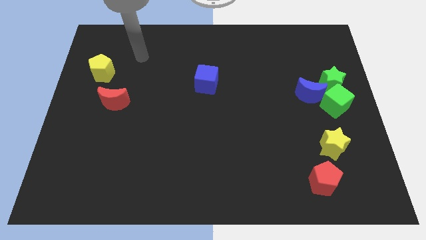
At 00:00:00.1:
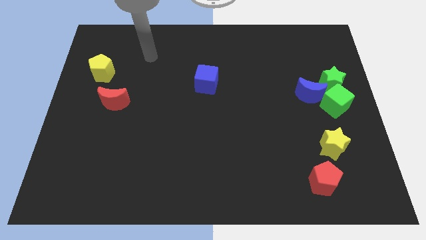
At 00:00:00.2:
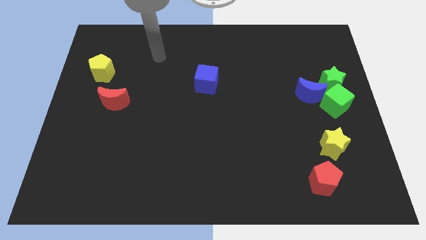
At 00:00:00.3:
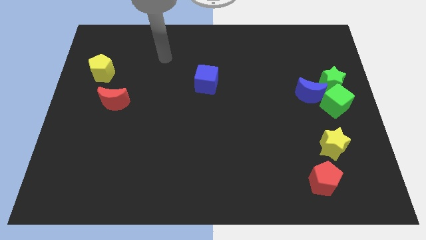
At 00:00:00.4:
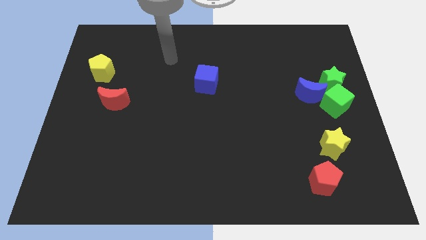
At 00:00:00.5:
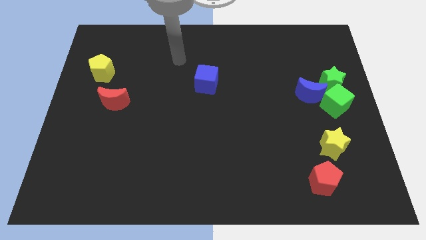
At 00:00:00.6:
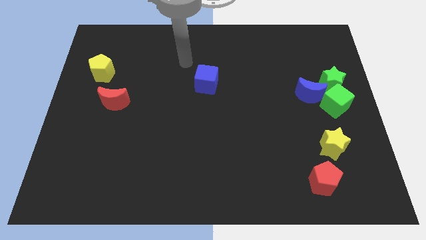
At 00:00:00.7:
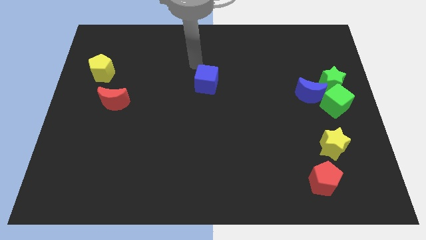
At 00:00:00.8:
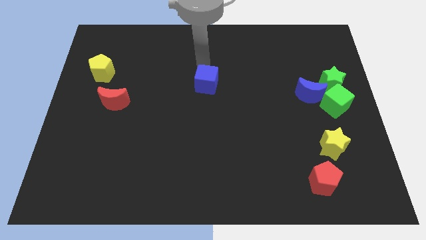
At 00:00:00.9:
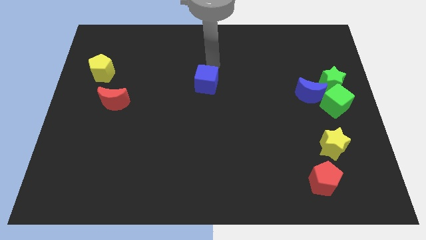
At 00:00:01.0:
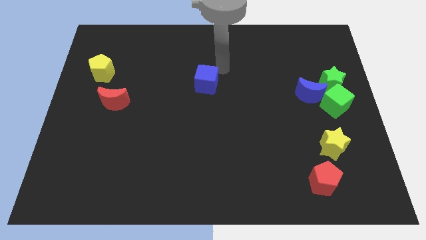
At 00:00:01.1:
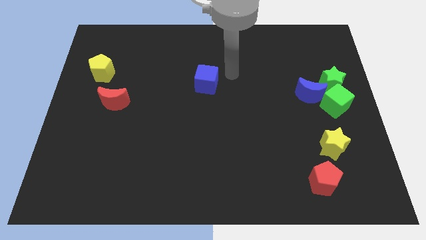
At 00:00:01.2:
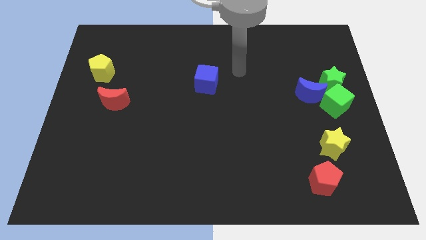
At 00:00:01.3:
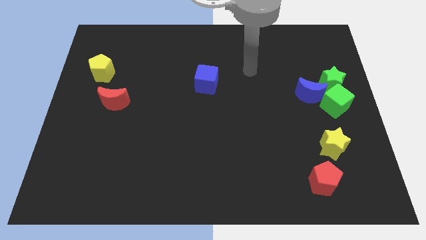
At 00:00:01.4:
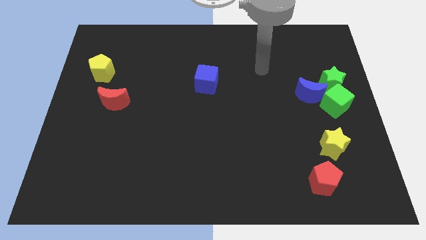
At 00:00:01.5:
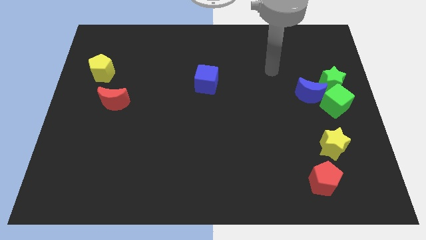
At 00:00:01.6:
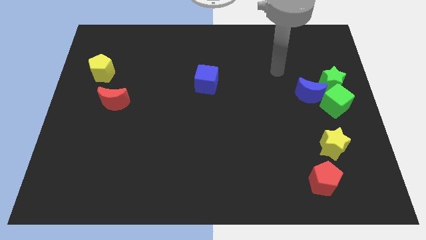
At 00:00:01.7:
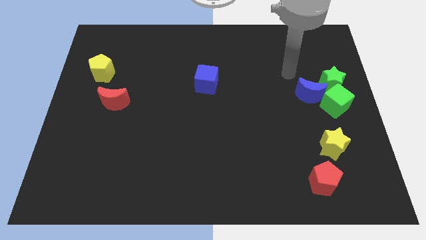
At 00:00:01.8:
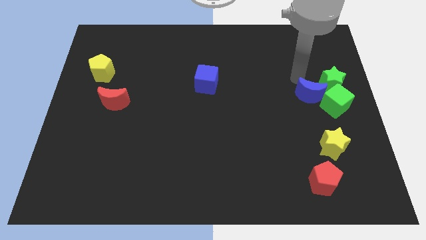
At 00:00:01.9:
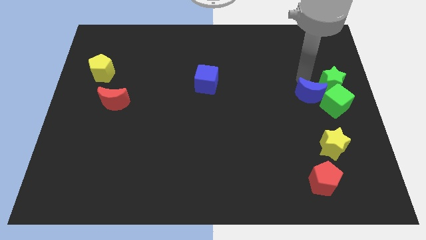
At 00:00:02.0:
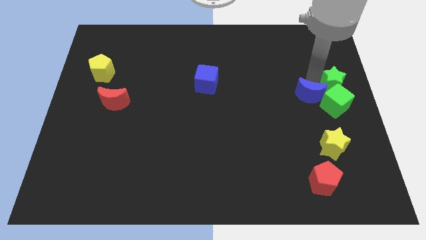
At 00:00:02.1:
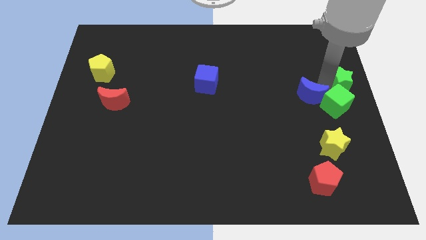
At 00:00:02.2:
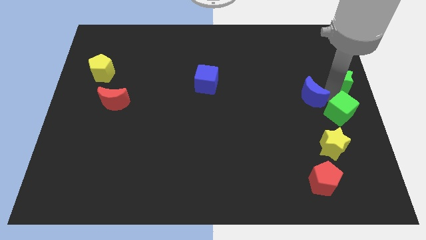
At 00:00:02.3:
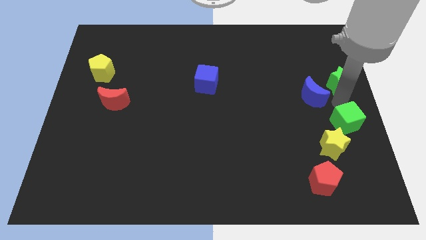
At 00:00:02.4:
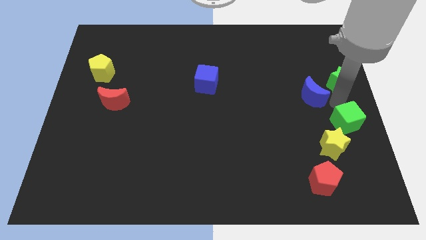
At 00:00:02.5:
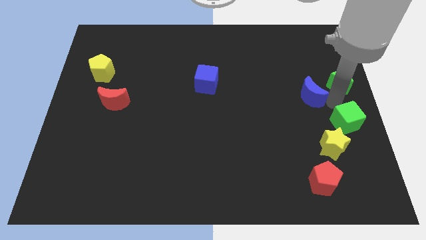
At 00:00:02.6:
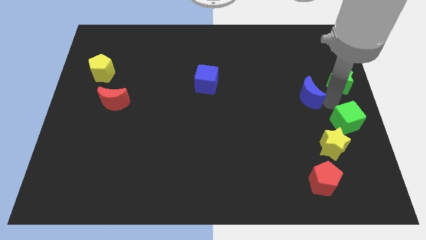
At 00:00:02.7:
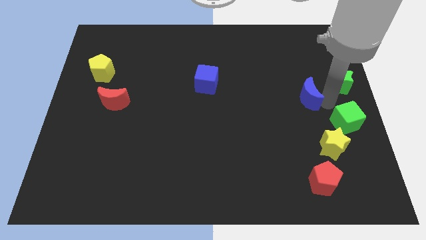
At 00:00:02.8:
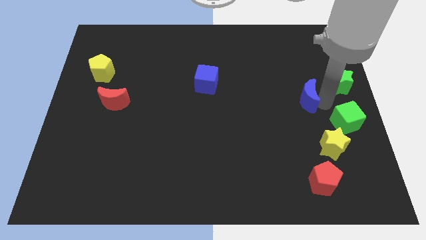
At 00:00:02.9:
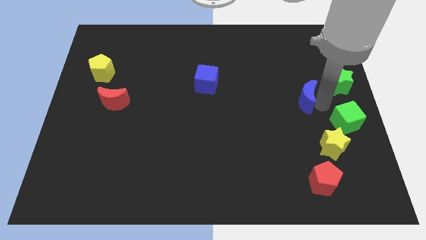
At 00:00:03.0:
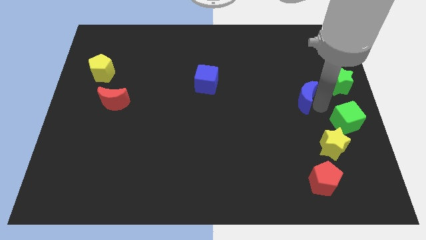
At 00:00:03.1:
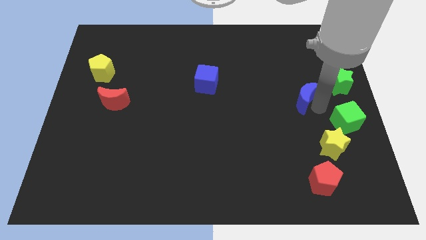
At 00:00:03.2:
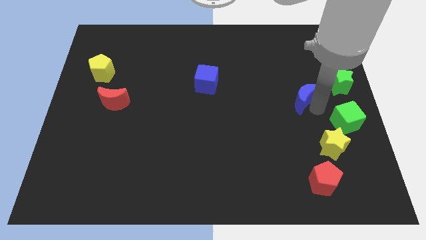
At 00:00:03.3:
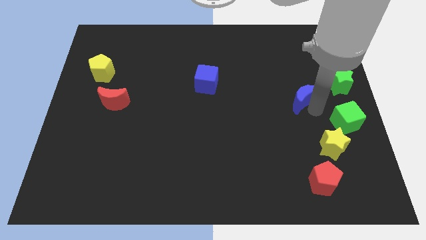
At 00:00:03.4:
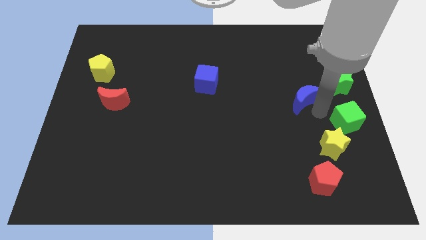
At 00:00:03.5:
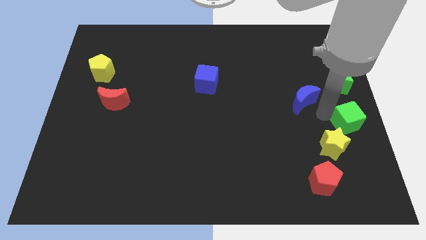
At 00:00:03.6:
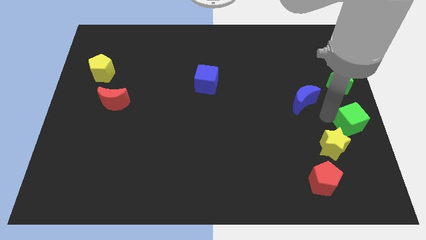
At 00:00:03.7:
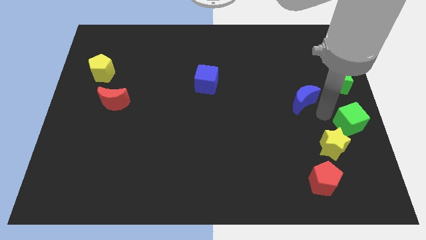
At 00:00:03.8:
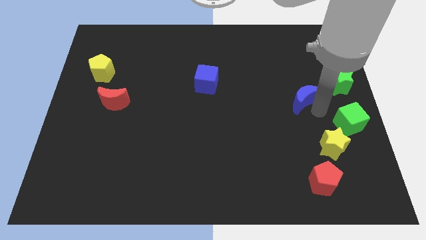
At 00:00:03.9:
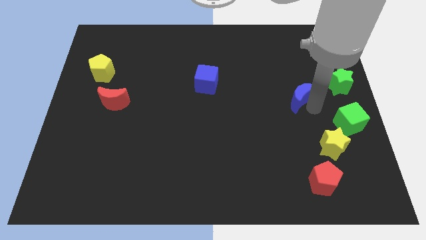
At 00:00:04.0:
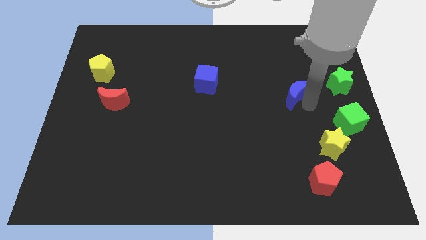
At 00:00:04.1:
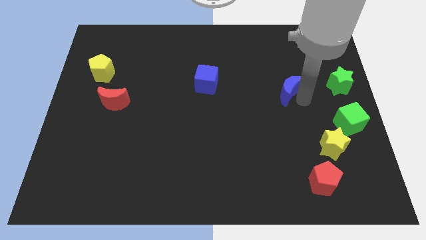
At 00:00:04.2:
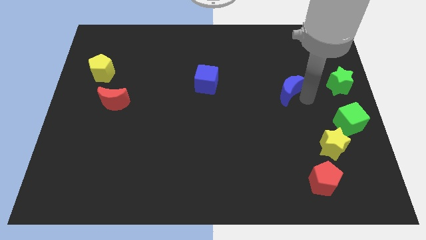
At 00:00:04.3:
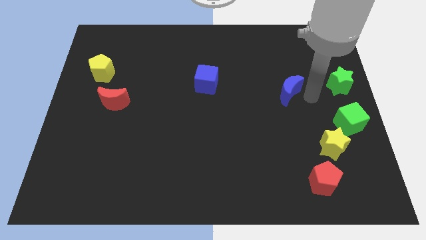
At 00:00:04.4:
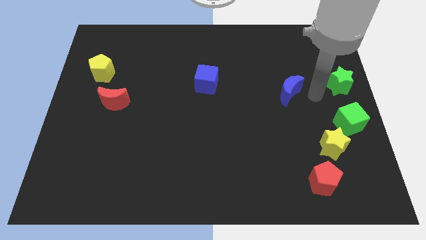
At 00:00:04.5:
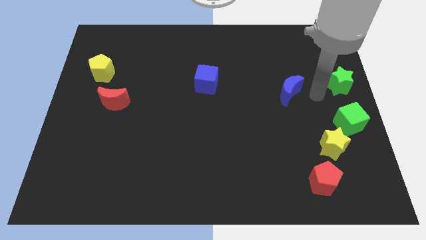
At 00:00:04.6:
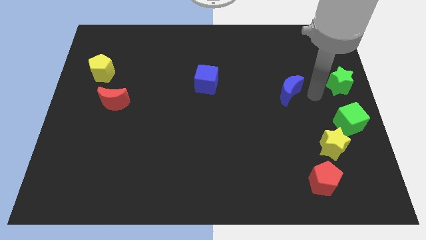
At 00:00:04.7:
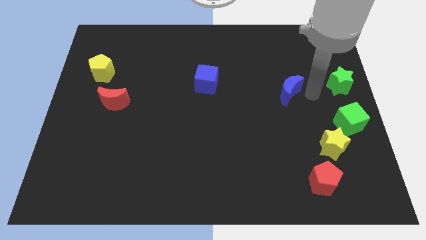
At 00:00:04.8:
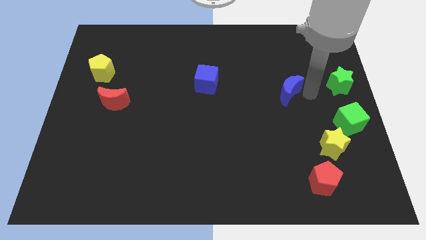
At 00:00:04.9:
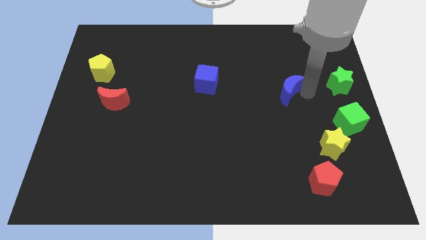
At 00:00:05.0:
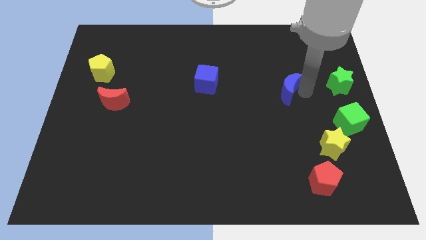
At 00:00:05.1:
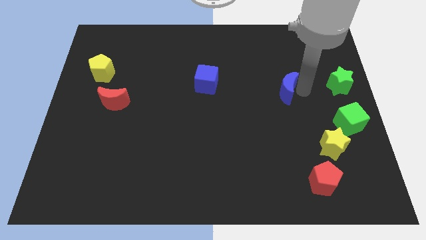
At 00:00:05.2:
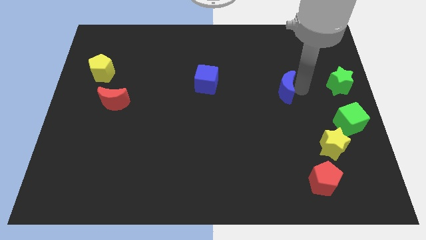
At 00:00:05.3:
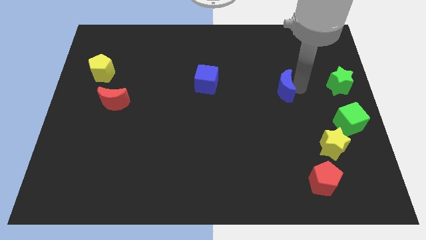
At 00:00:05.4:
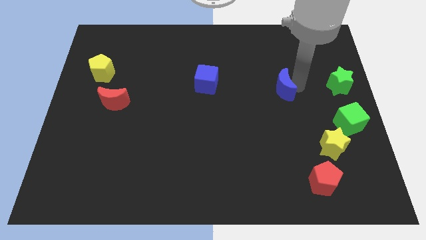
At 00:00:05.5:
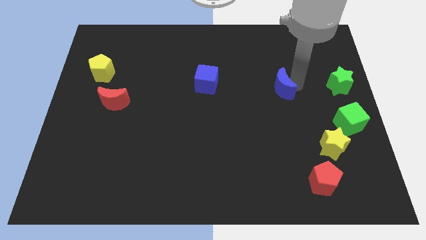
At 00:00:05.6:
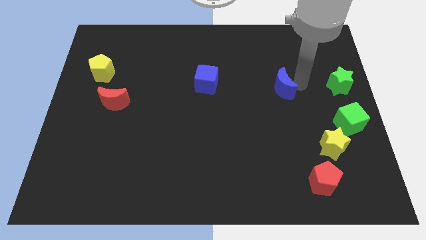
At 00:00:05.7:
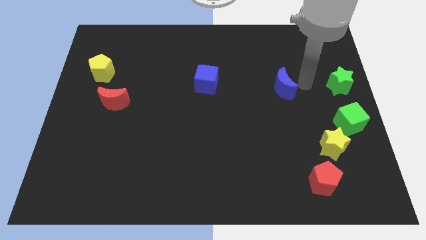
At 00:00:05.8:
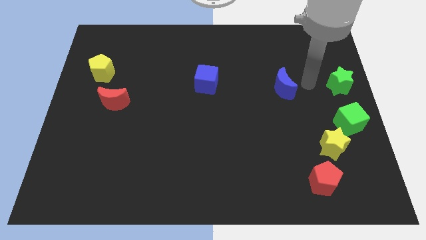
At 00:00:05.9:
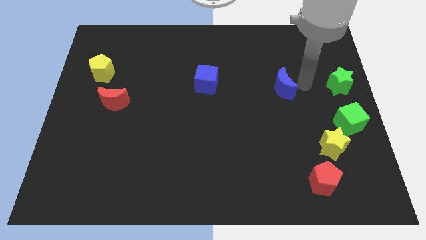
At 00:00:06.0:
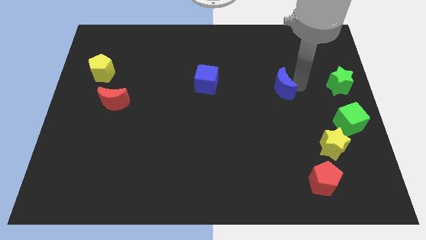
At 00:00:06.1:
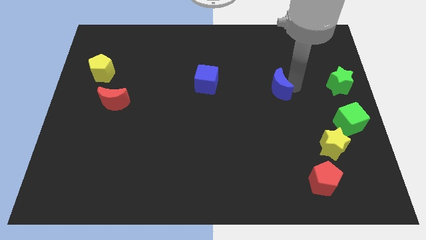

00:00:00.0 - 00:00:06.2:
push the blue moon to the left a bit

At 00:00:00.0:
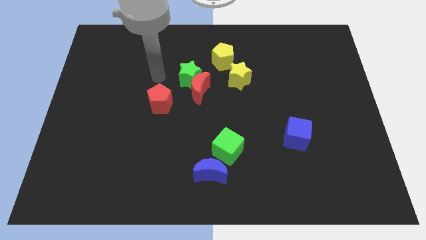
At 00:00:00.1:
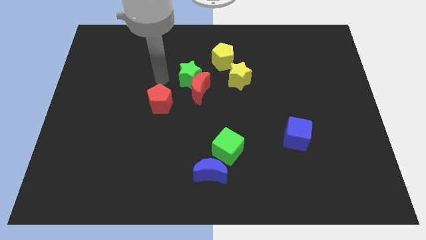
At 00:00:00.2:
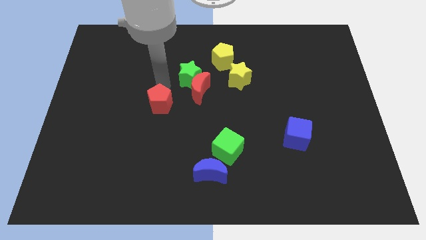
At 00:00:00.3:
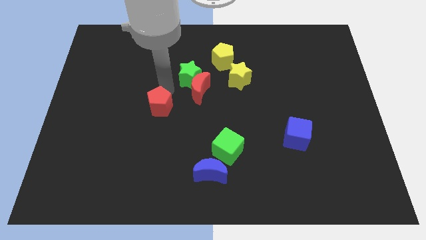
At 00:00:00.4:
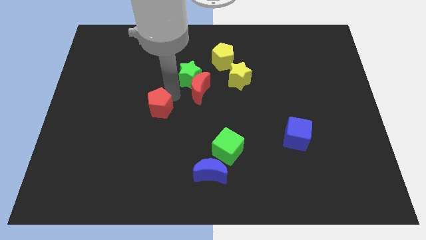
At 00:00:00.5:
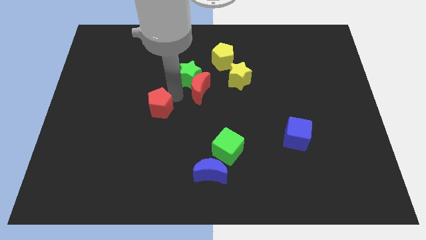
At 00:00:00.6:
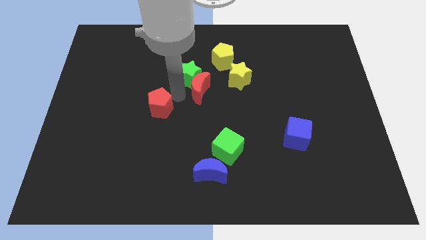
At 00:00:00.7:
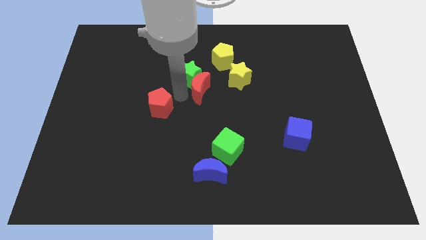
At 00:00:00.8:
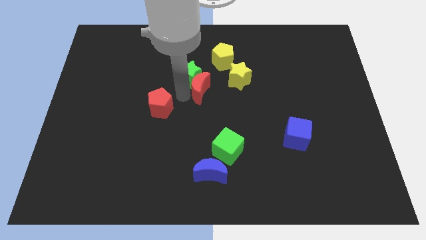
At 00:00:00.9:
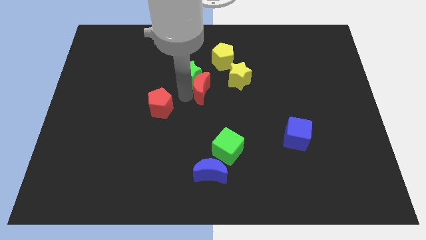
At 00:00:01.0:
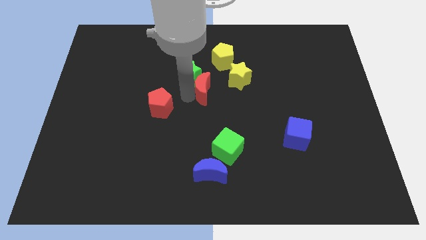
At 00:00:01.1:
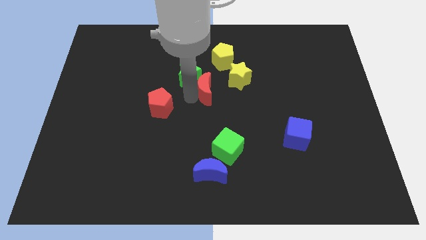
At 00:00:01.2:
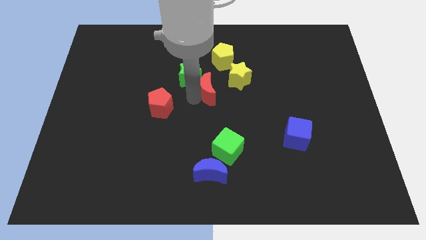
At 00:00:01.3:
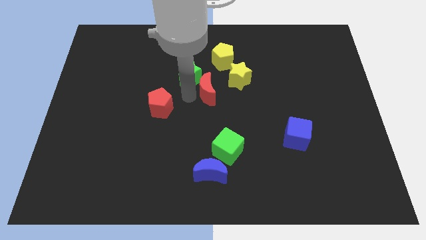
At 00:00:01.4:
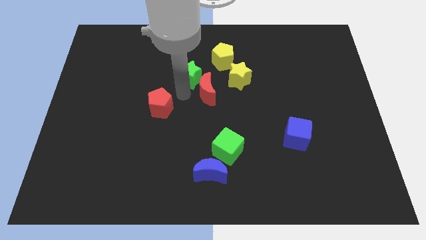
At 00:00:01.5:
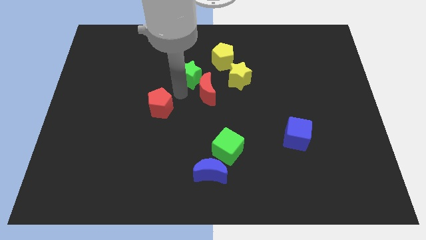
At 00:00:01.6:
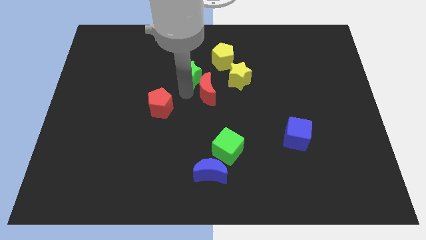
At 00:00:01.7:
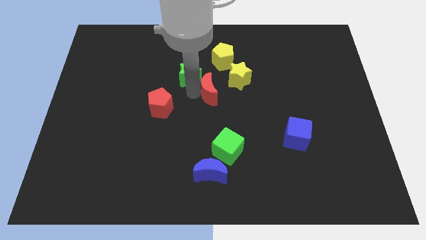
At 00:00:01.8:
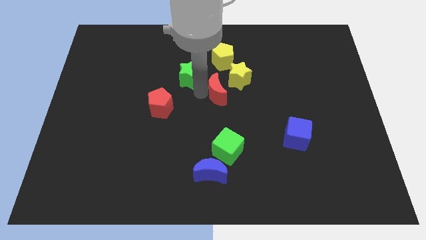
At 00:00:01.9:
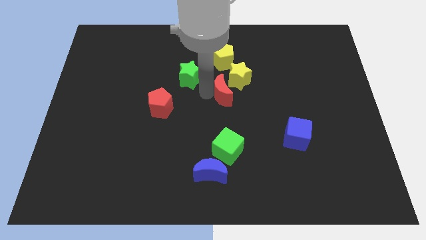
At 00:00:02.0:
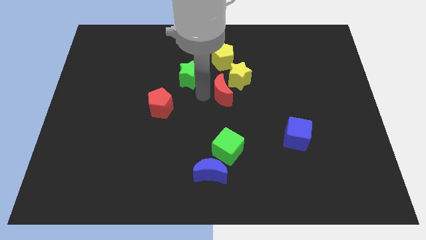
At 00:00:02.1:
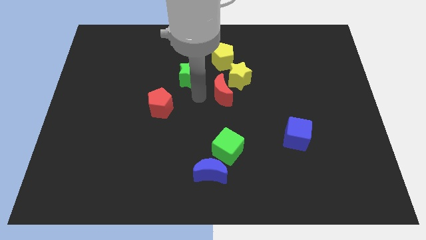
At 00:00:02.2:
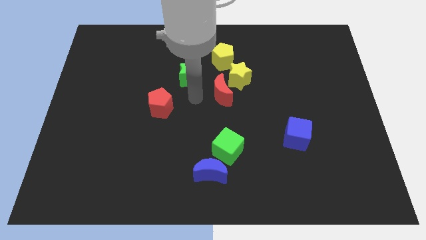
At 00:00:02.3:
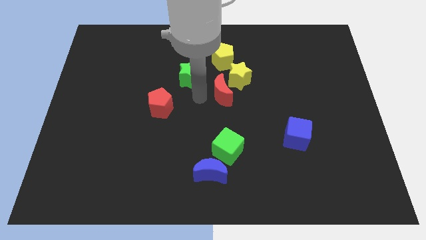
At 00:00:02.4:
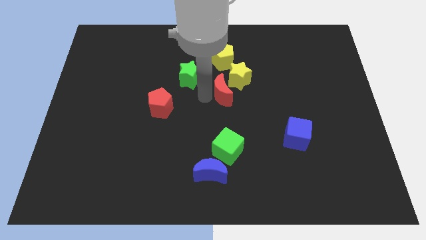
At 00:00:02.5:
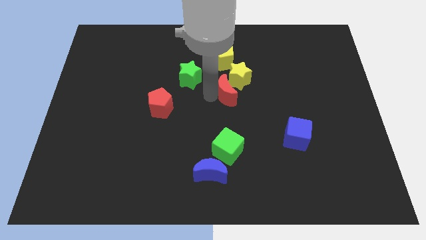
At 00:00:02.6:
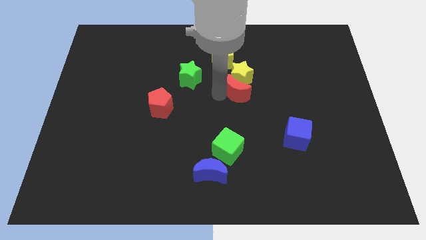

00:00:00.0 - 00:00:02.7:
slide the red moon right a bit
